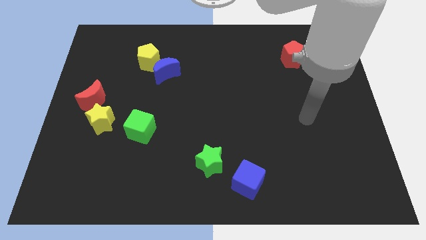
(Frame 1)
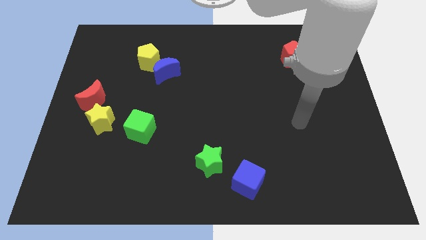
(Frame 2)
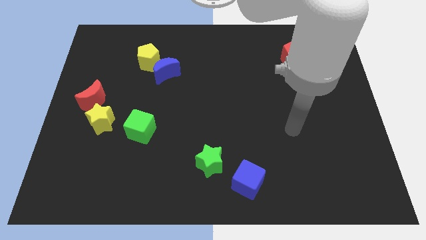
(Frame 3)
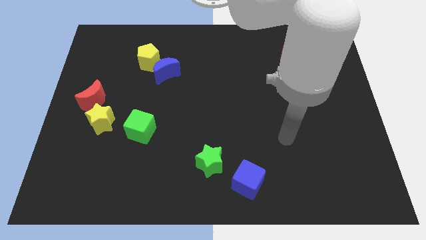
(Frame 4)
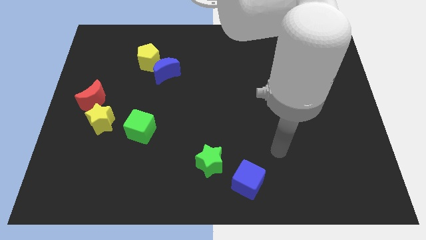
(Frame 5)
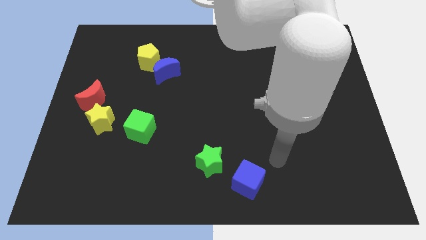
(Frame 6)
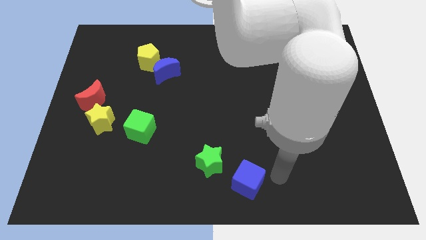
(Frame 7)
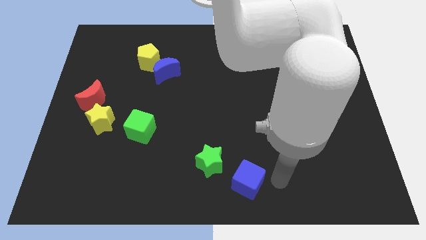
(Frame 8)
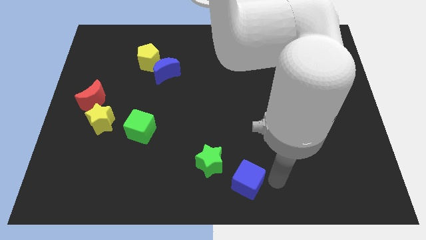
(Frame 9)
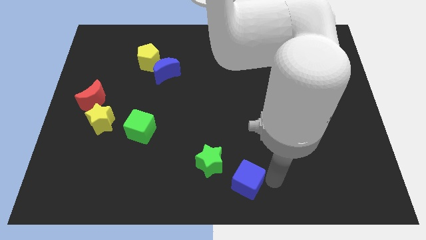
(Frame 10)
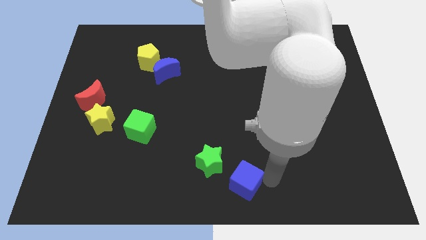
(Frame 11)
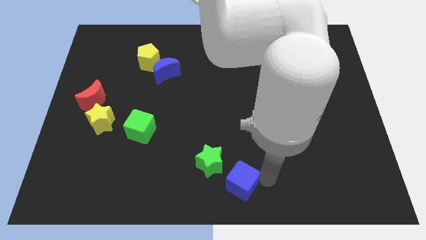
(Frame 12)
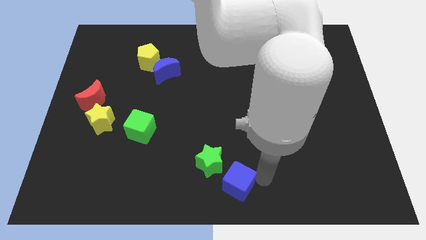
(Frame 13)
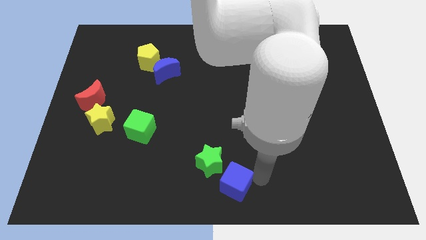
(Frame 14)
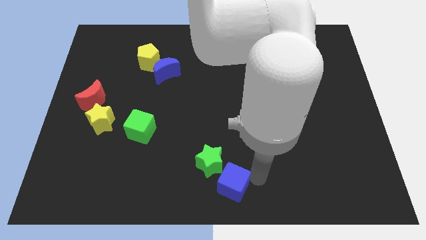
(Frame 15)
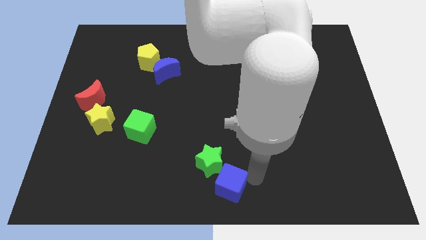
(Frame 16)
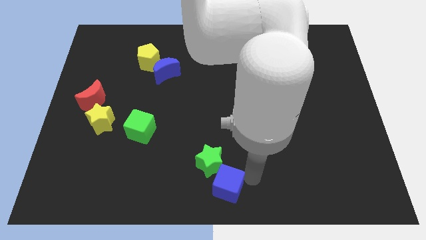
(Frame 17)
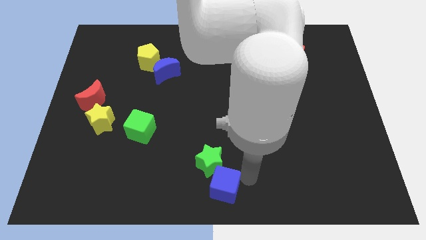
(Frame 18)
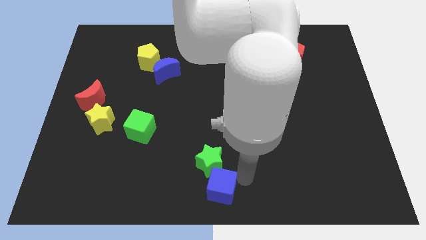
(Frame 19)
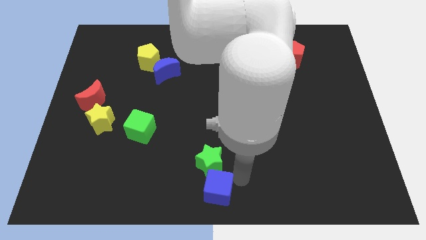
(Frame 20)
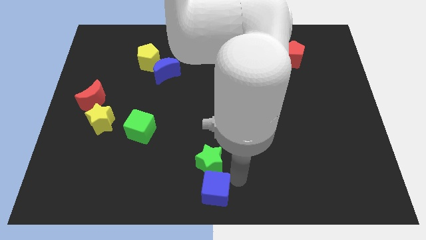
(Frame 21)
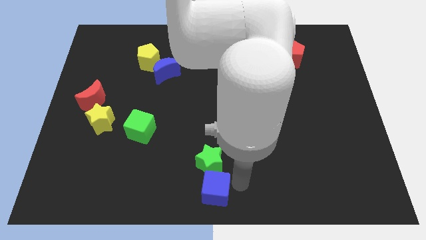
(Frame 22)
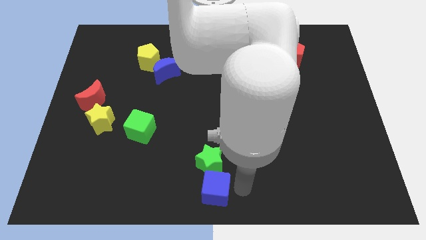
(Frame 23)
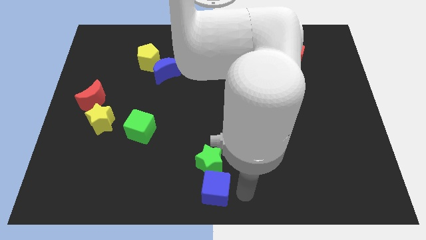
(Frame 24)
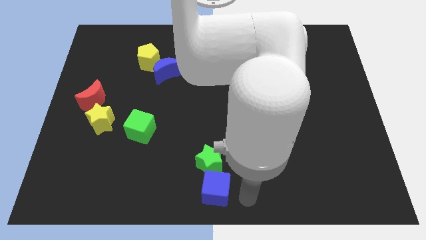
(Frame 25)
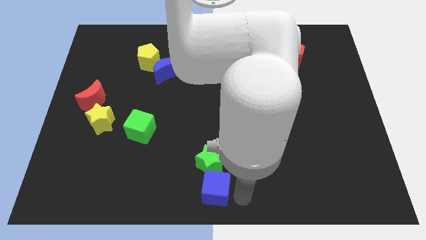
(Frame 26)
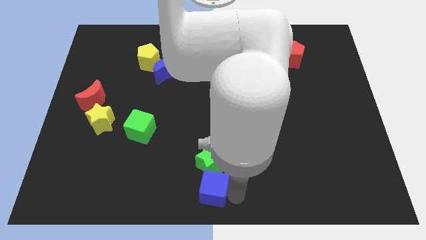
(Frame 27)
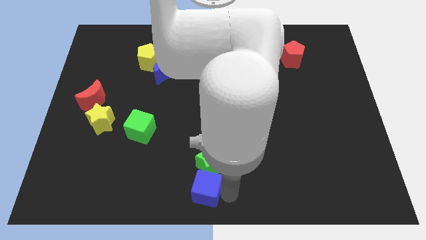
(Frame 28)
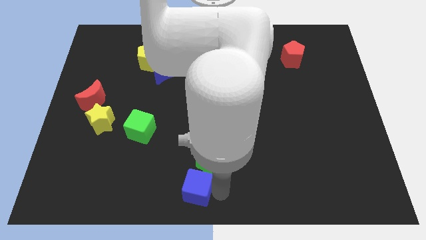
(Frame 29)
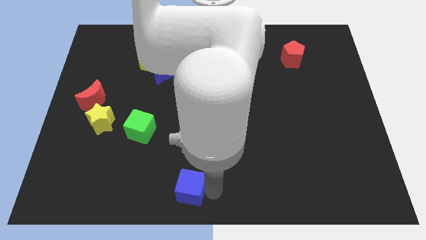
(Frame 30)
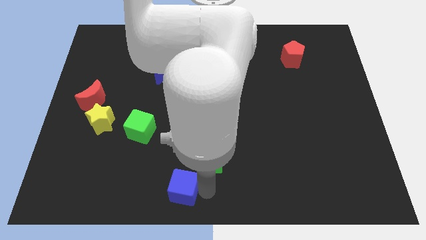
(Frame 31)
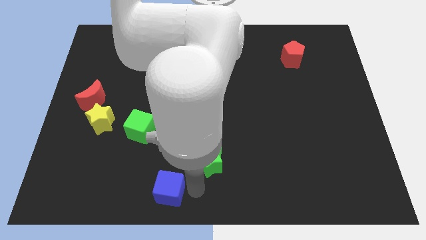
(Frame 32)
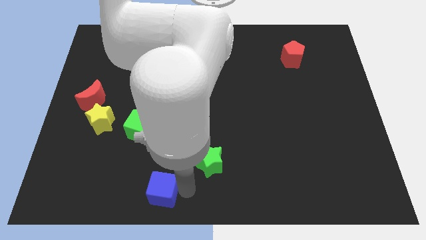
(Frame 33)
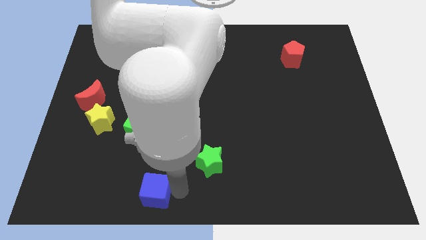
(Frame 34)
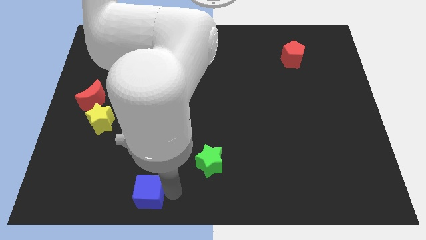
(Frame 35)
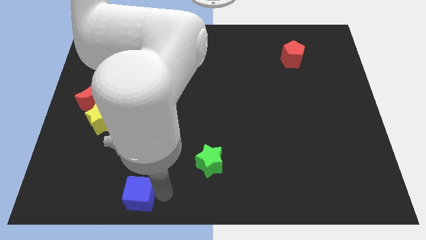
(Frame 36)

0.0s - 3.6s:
move the blue cube to the left

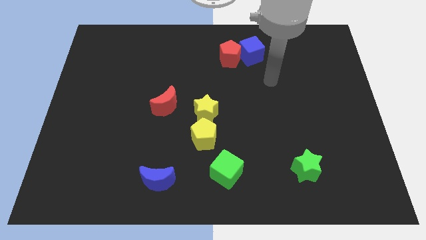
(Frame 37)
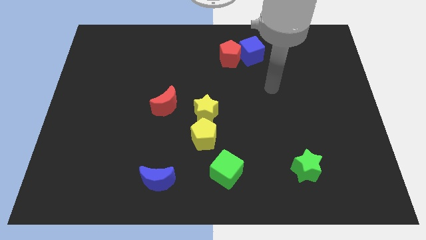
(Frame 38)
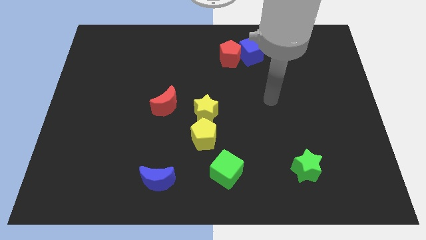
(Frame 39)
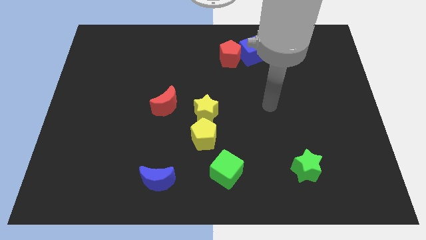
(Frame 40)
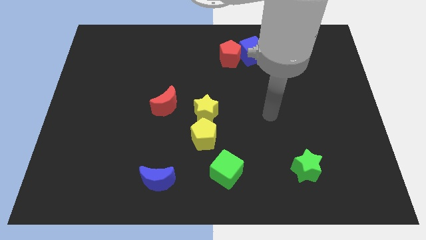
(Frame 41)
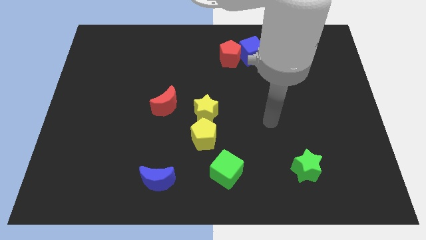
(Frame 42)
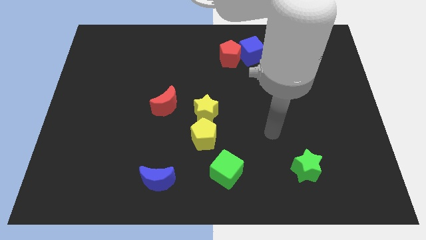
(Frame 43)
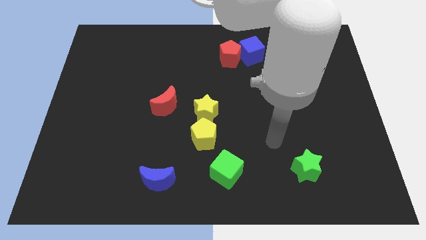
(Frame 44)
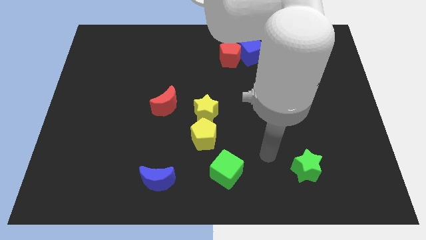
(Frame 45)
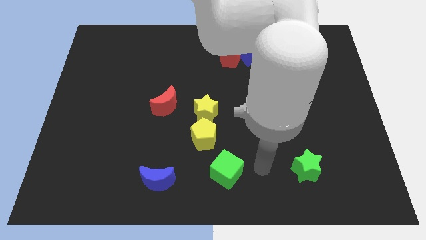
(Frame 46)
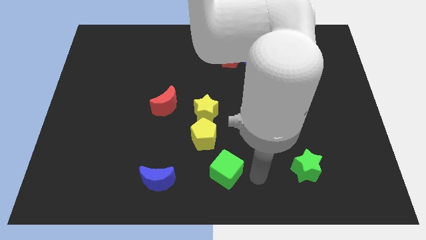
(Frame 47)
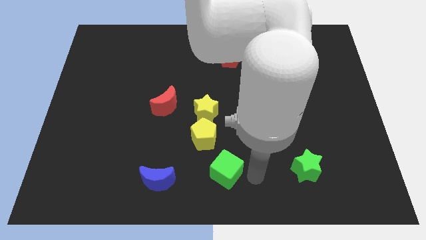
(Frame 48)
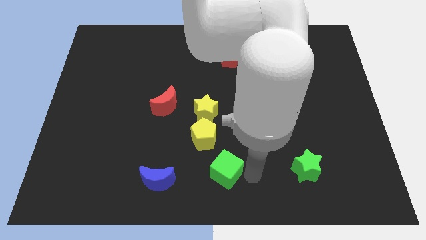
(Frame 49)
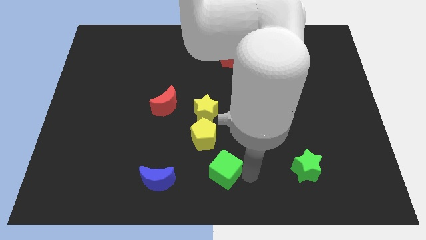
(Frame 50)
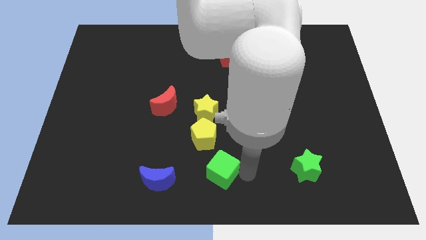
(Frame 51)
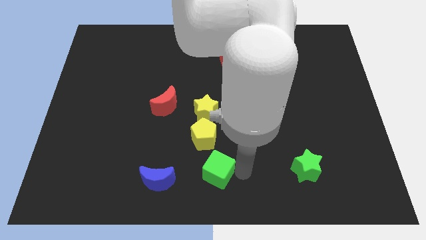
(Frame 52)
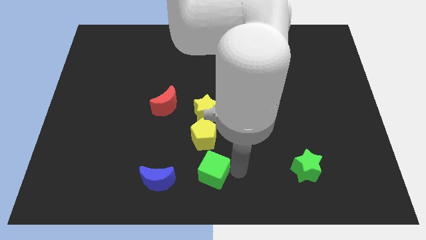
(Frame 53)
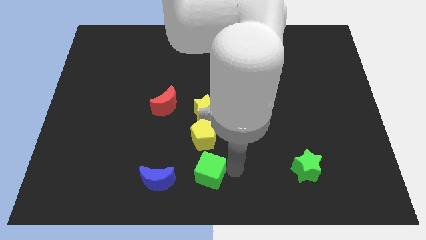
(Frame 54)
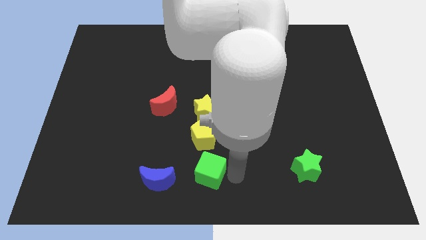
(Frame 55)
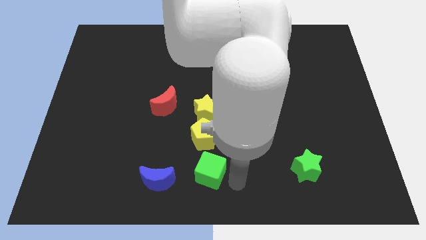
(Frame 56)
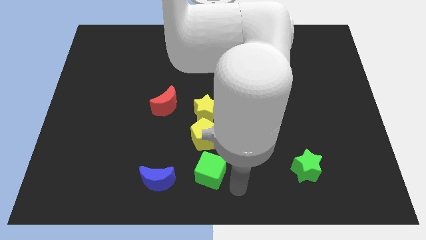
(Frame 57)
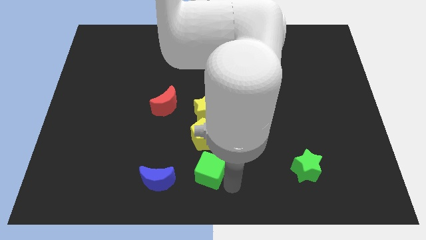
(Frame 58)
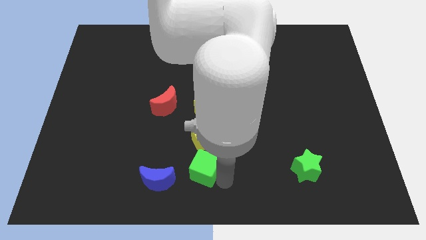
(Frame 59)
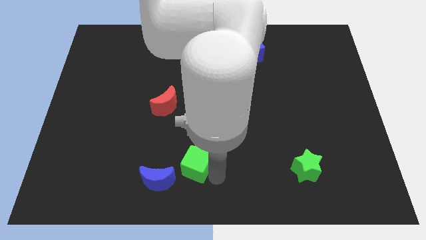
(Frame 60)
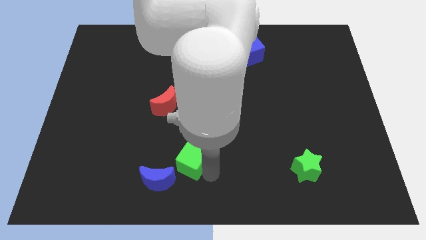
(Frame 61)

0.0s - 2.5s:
slightly slide the green cube left

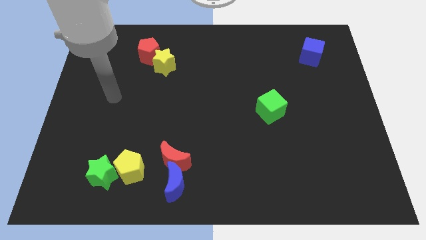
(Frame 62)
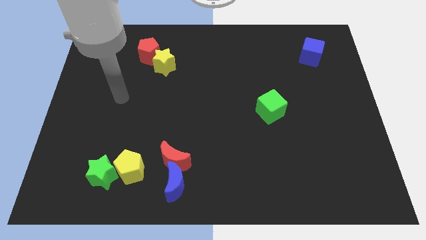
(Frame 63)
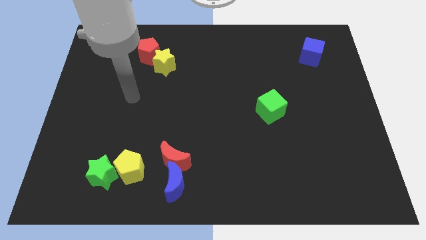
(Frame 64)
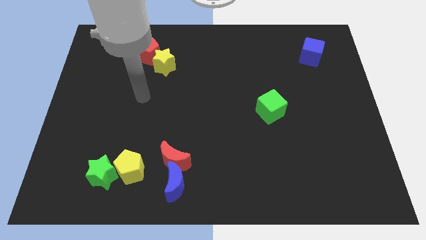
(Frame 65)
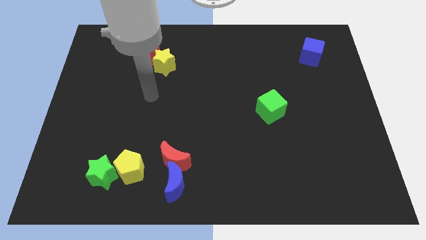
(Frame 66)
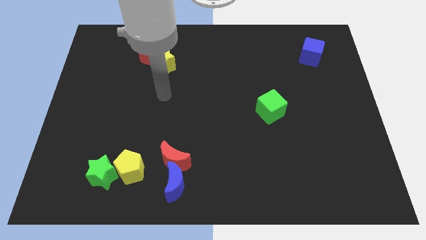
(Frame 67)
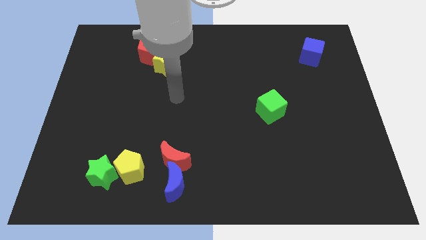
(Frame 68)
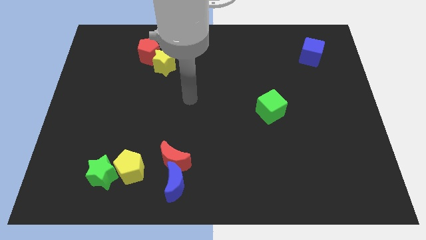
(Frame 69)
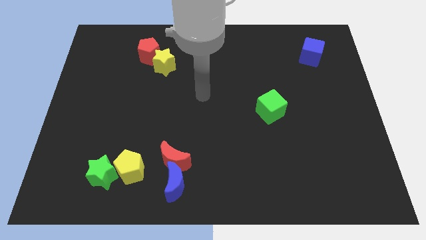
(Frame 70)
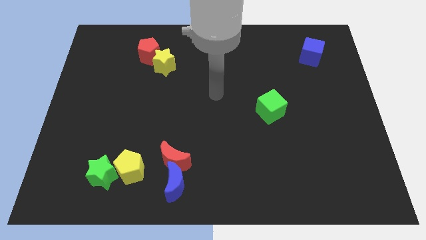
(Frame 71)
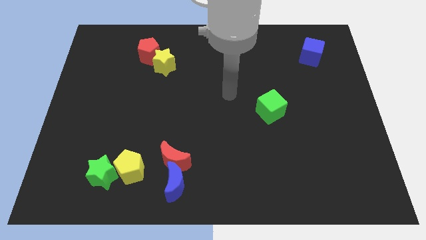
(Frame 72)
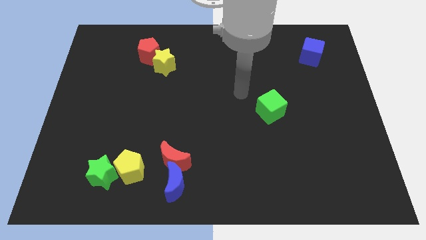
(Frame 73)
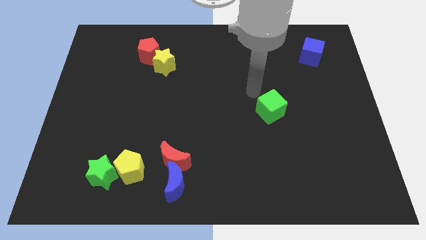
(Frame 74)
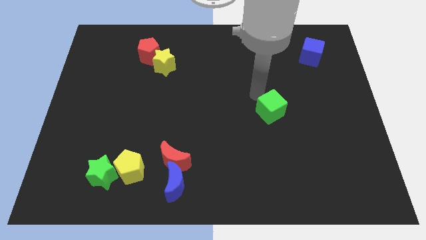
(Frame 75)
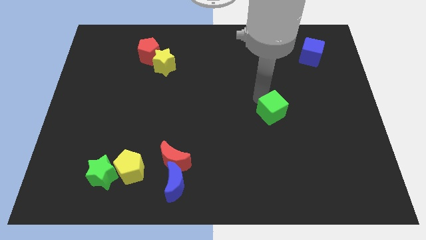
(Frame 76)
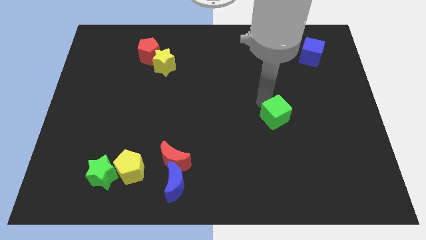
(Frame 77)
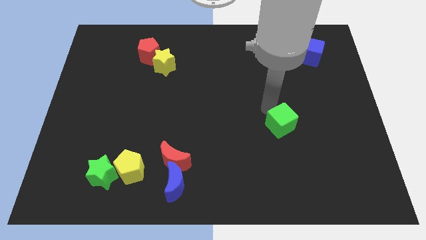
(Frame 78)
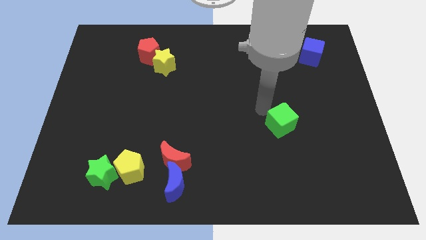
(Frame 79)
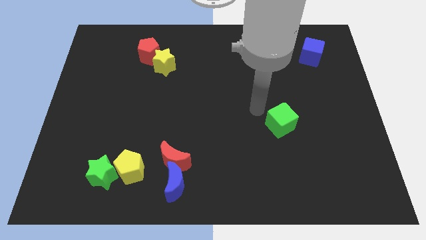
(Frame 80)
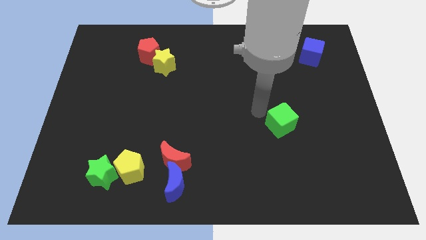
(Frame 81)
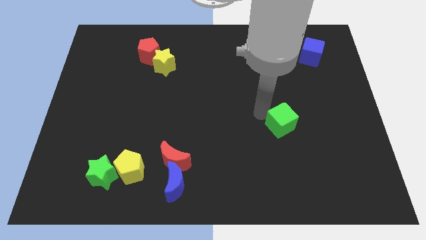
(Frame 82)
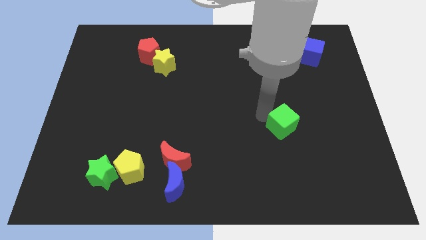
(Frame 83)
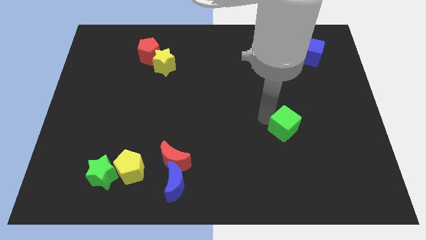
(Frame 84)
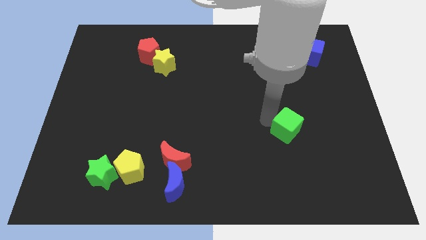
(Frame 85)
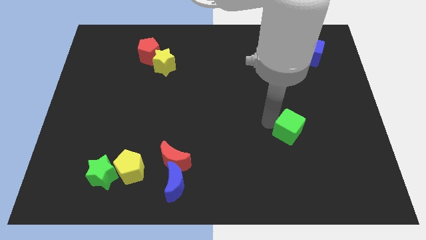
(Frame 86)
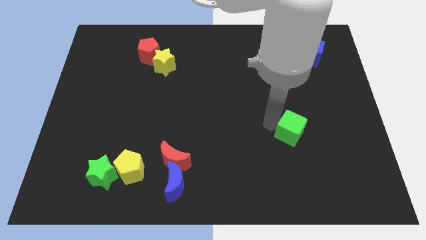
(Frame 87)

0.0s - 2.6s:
push the green cube slightly down and right diagonally
